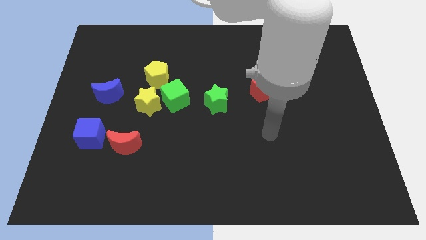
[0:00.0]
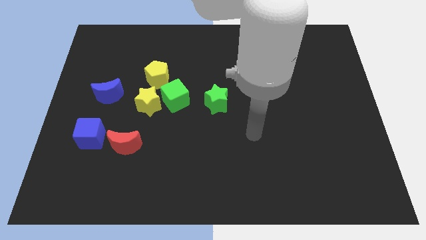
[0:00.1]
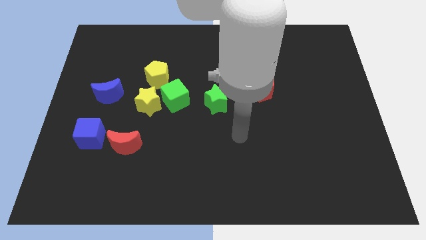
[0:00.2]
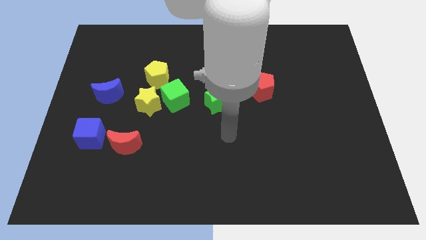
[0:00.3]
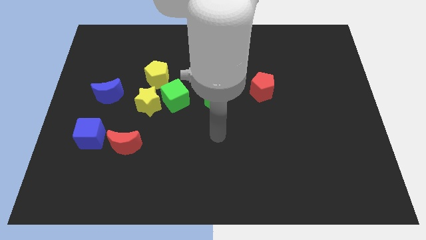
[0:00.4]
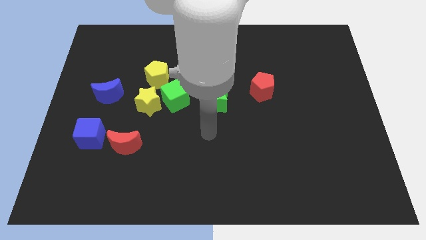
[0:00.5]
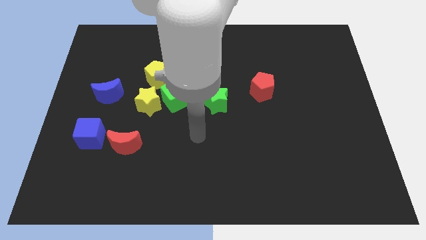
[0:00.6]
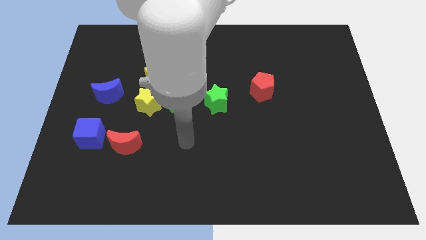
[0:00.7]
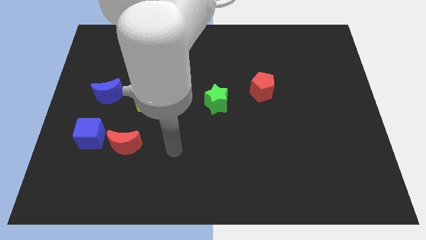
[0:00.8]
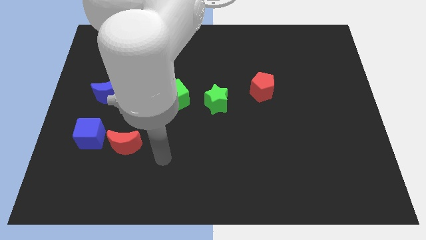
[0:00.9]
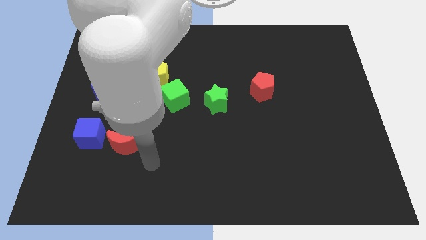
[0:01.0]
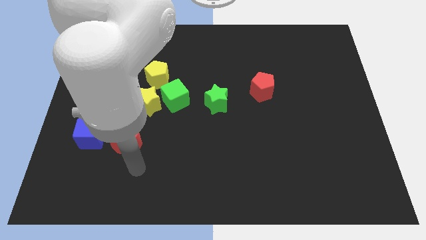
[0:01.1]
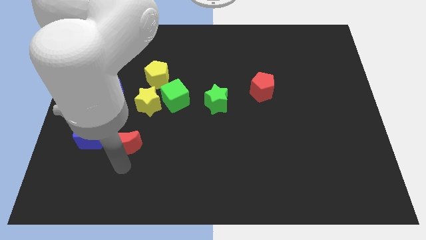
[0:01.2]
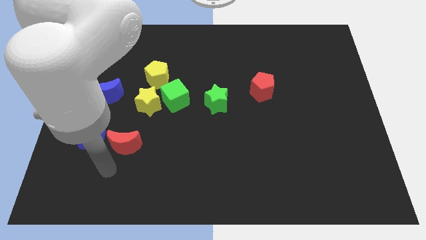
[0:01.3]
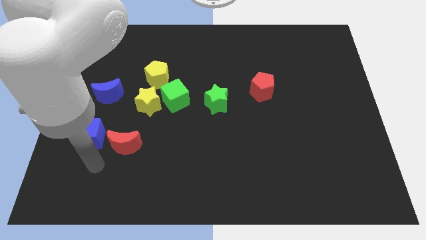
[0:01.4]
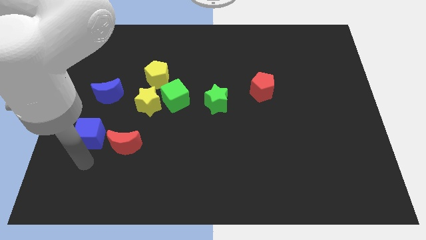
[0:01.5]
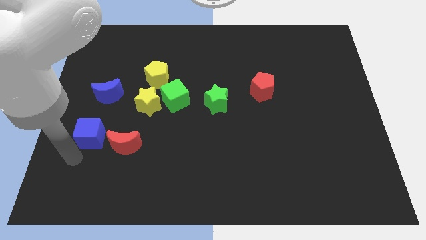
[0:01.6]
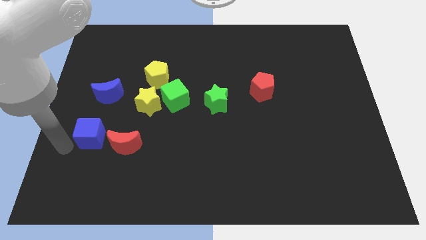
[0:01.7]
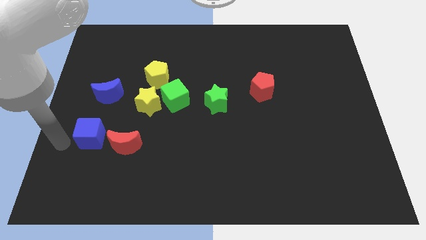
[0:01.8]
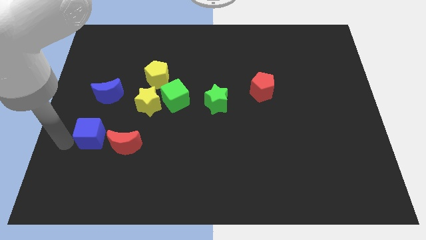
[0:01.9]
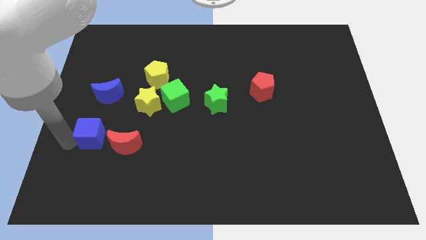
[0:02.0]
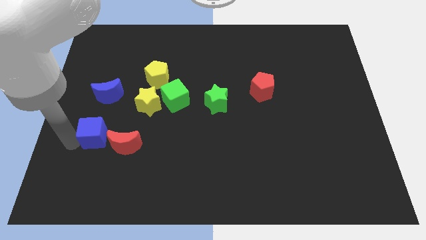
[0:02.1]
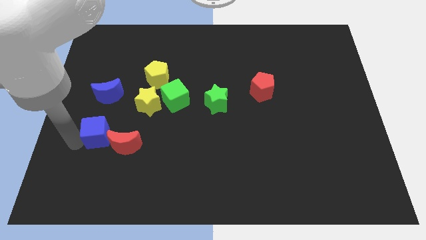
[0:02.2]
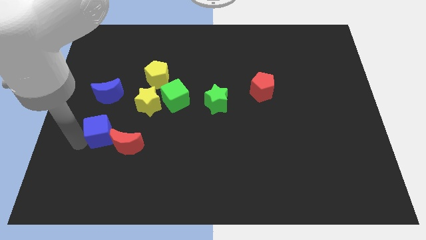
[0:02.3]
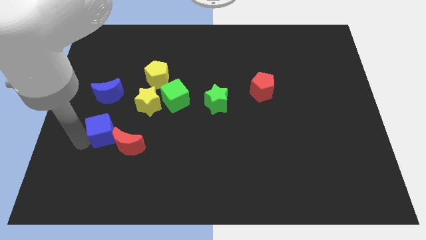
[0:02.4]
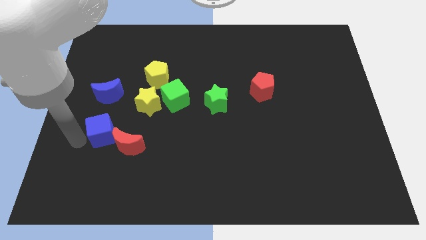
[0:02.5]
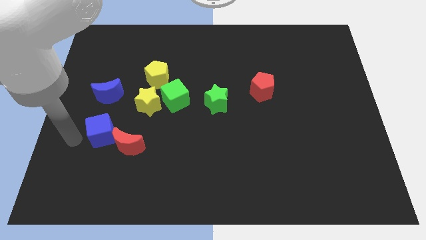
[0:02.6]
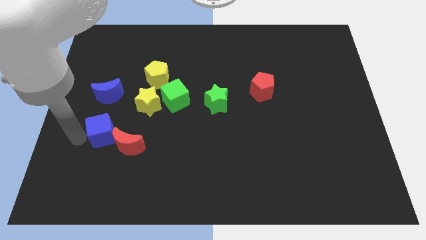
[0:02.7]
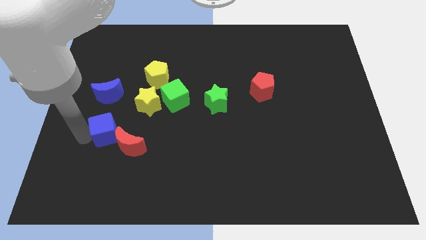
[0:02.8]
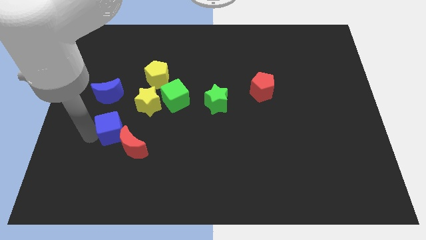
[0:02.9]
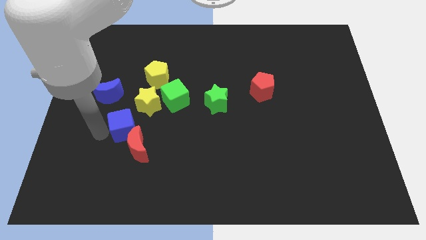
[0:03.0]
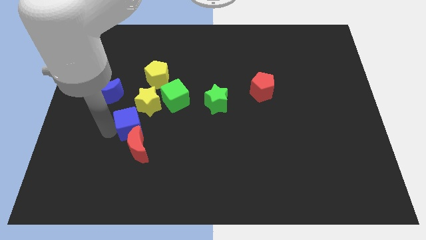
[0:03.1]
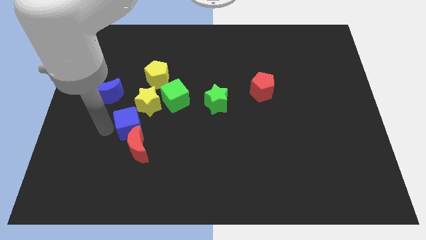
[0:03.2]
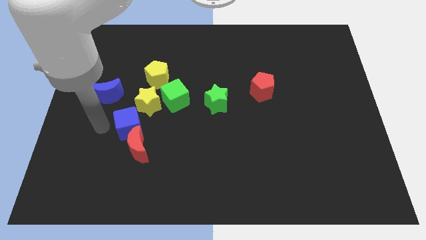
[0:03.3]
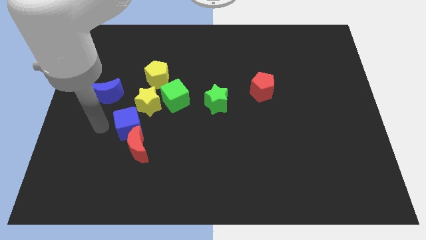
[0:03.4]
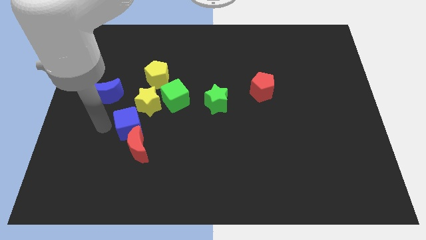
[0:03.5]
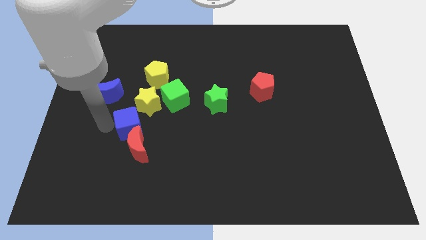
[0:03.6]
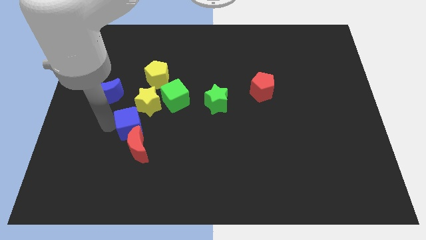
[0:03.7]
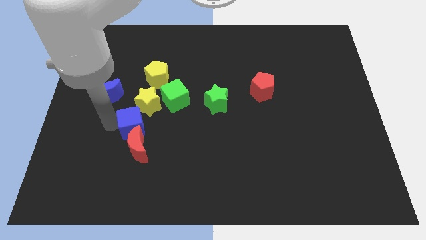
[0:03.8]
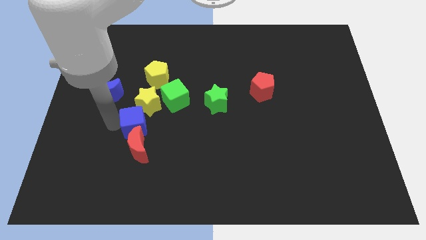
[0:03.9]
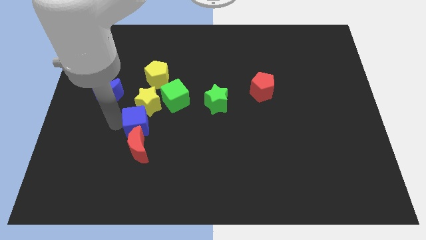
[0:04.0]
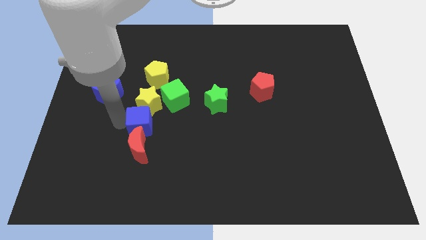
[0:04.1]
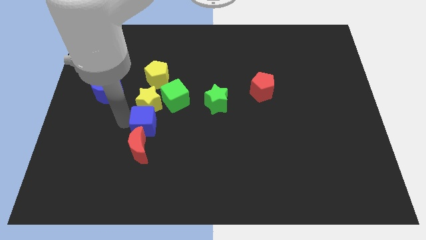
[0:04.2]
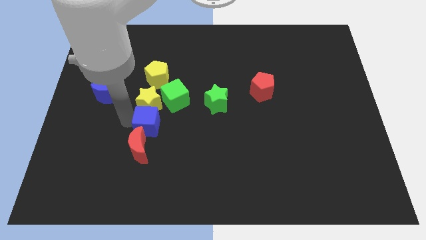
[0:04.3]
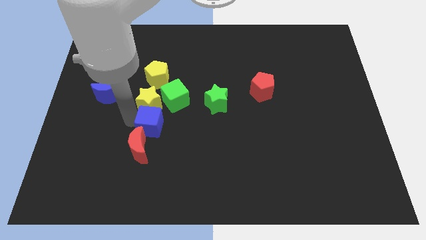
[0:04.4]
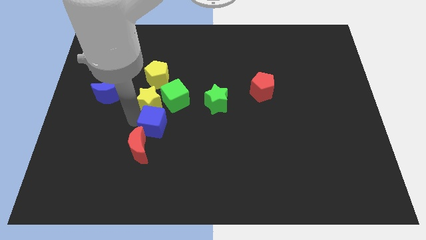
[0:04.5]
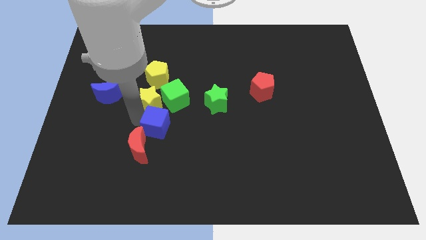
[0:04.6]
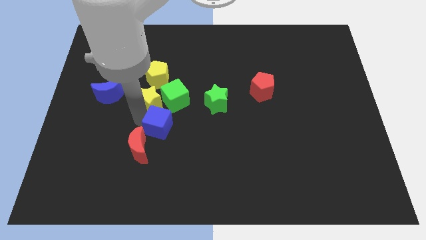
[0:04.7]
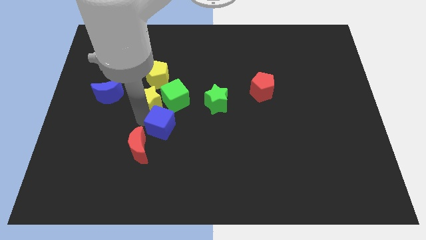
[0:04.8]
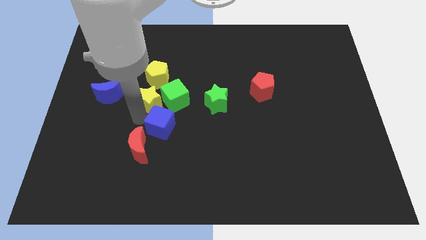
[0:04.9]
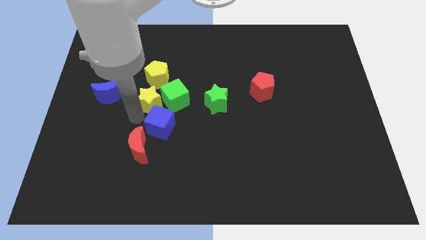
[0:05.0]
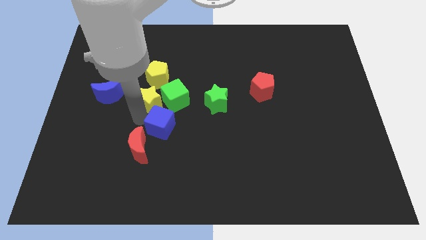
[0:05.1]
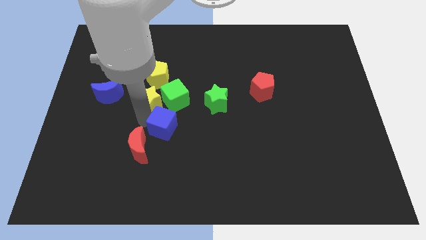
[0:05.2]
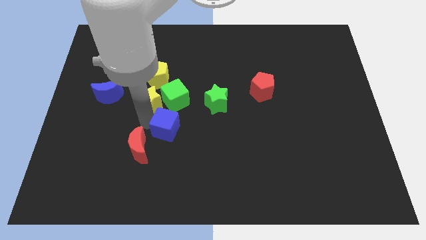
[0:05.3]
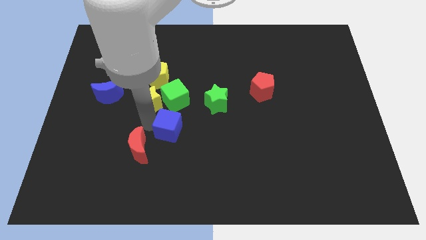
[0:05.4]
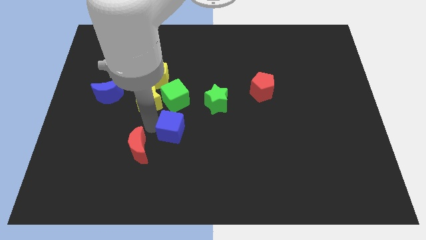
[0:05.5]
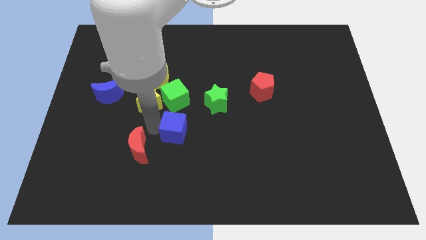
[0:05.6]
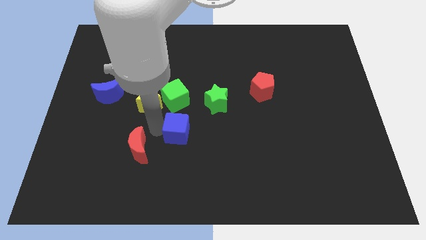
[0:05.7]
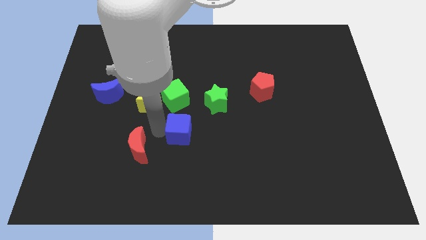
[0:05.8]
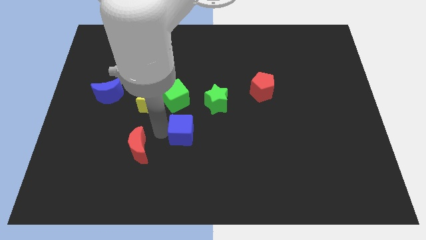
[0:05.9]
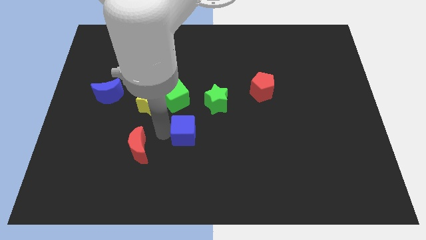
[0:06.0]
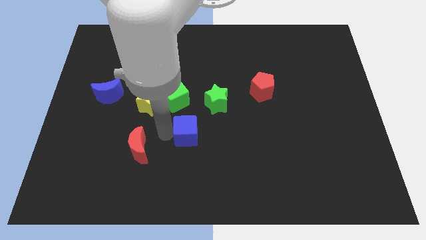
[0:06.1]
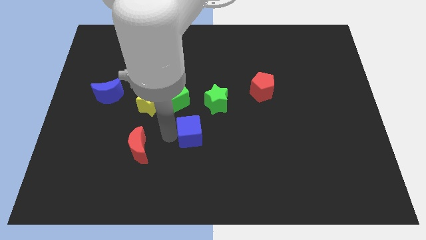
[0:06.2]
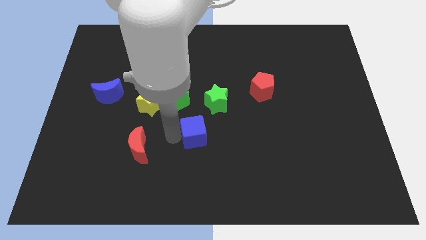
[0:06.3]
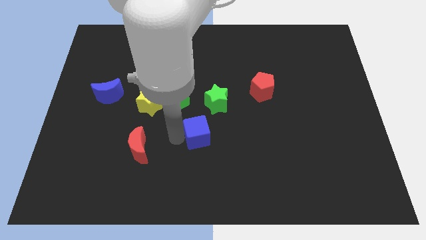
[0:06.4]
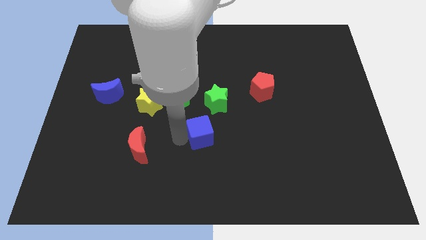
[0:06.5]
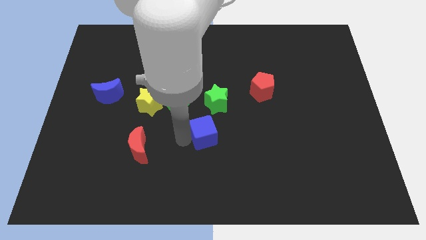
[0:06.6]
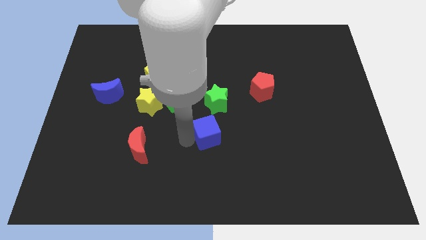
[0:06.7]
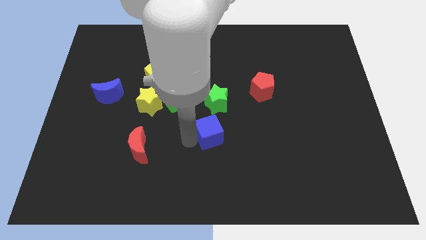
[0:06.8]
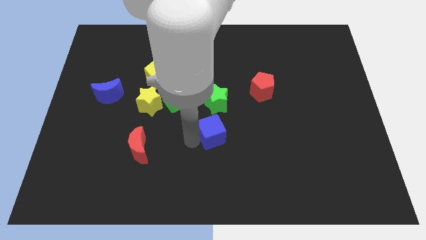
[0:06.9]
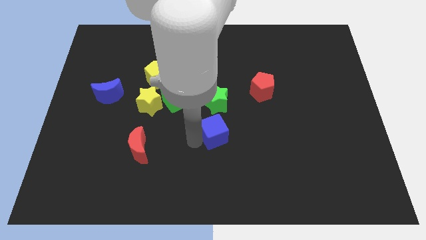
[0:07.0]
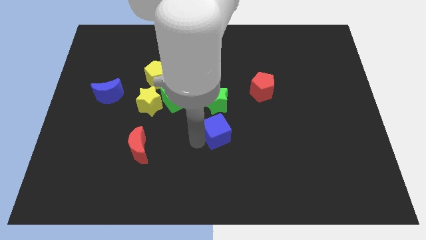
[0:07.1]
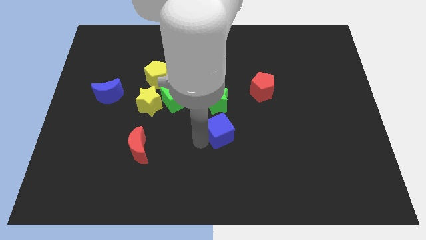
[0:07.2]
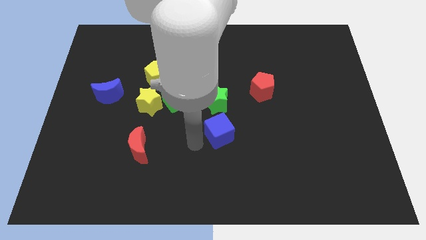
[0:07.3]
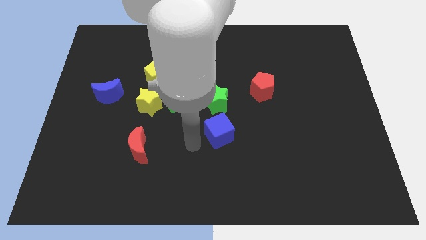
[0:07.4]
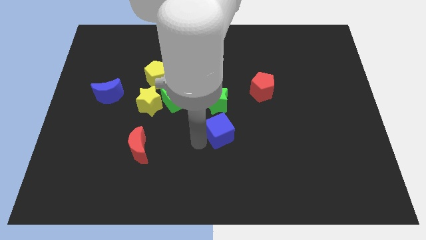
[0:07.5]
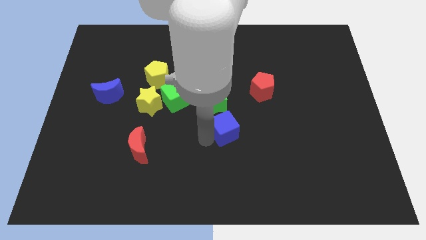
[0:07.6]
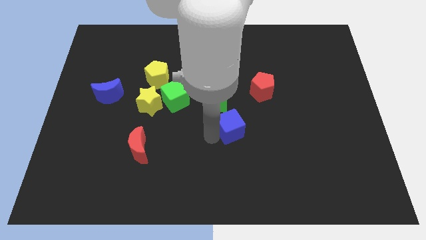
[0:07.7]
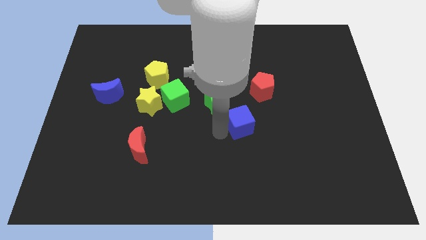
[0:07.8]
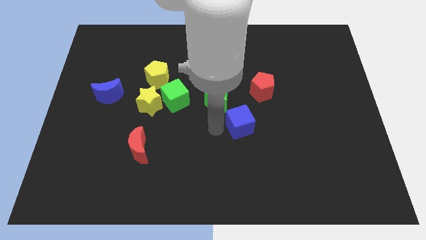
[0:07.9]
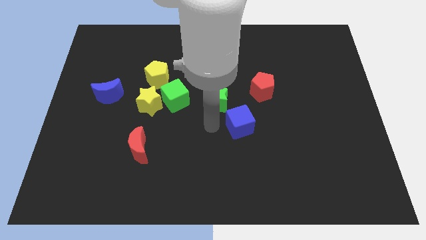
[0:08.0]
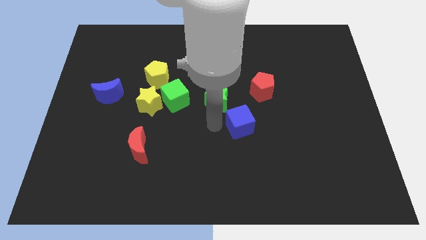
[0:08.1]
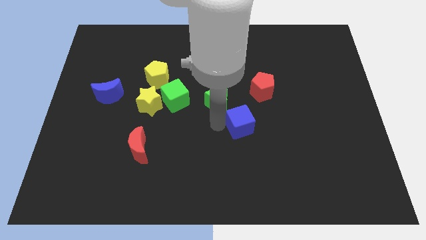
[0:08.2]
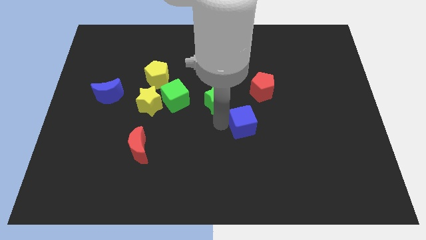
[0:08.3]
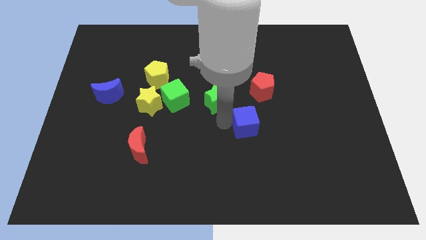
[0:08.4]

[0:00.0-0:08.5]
push the blue cube to the bottom of the red pentagon
